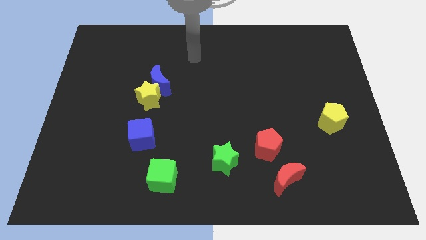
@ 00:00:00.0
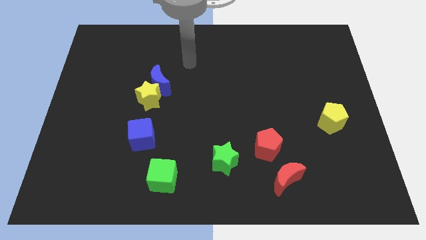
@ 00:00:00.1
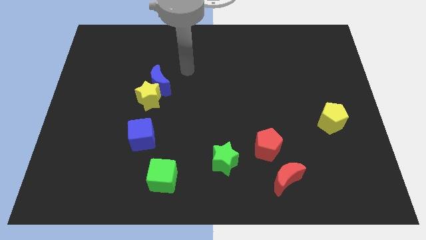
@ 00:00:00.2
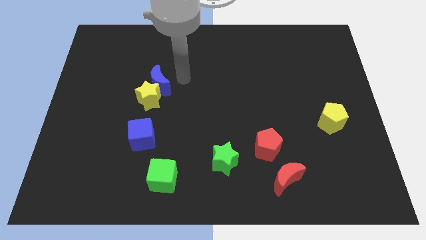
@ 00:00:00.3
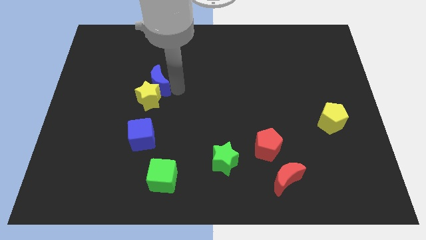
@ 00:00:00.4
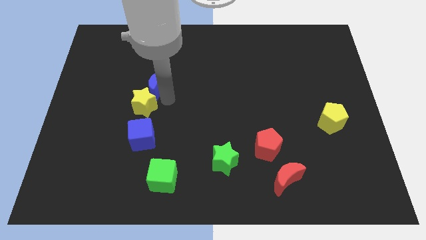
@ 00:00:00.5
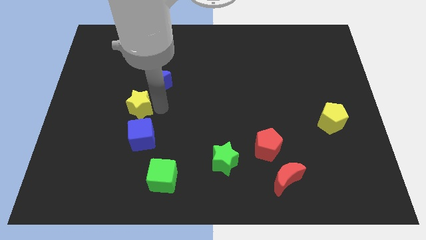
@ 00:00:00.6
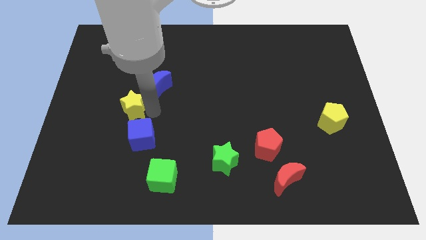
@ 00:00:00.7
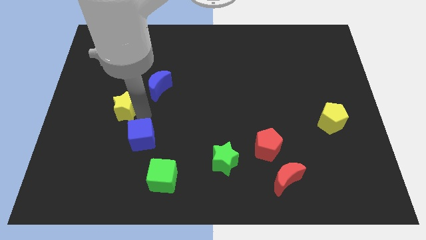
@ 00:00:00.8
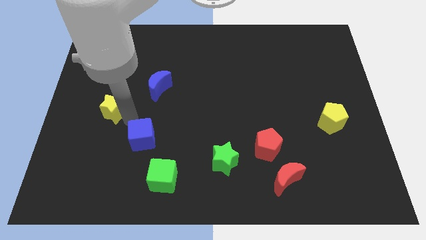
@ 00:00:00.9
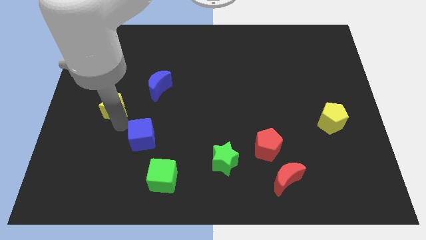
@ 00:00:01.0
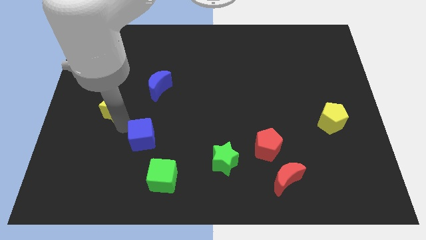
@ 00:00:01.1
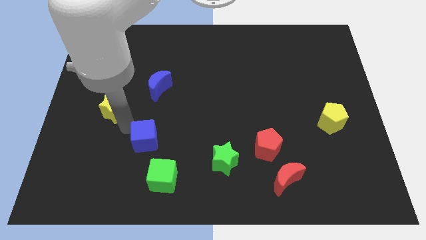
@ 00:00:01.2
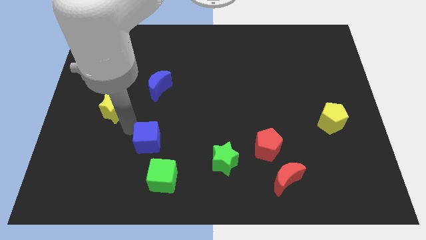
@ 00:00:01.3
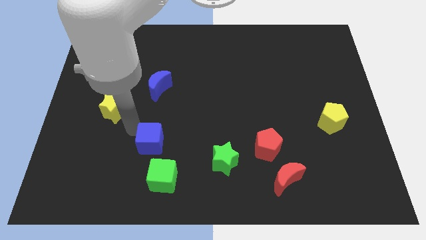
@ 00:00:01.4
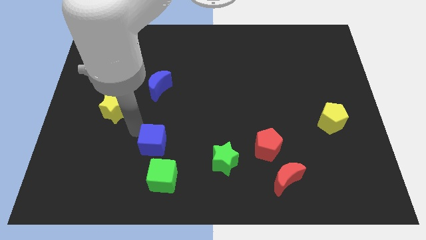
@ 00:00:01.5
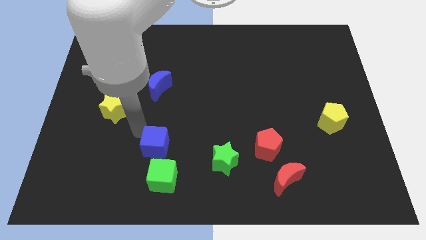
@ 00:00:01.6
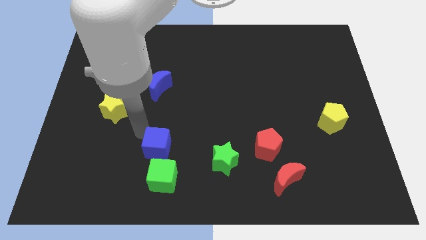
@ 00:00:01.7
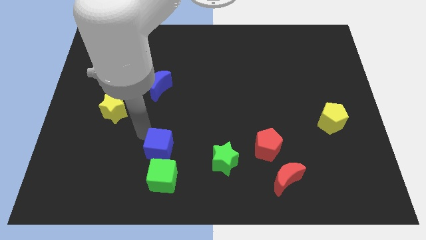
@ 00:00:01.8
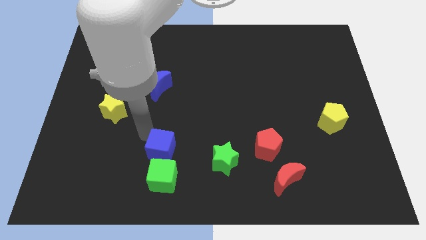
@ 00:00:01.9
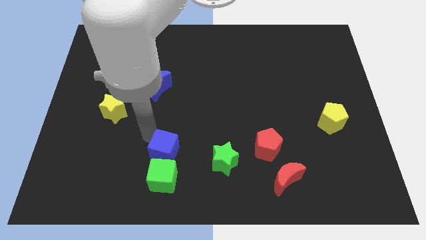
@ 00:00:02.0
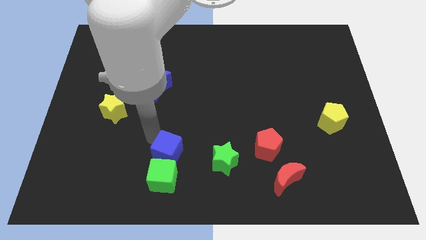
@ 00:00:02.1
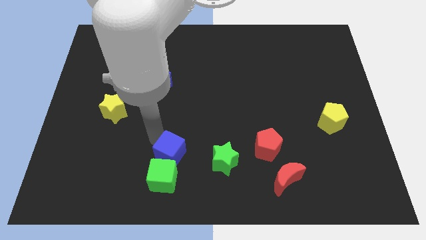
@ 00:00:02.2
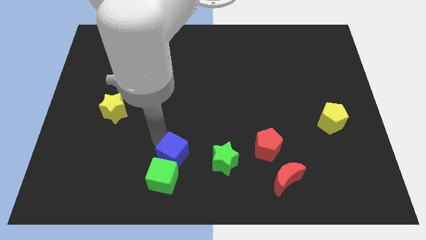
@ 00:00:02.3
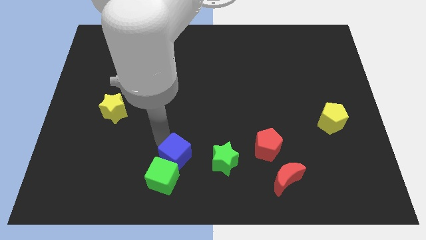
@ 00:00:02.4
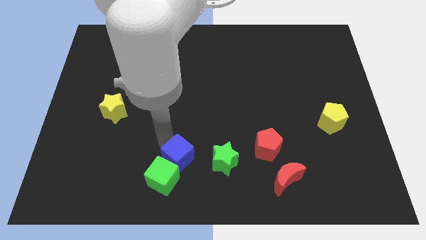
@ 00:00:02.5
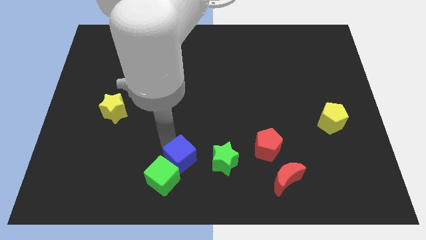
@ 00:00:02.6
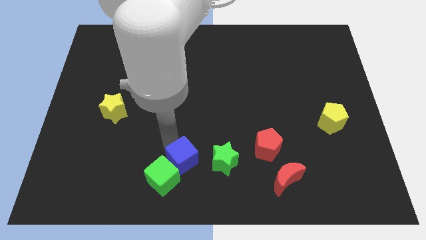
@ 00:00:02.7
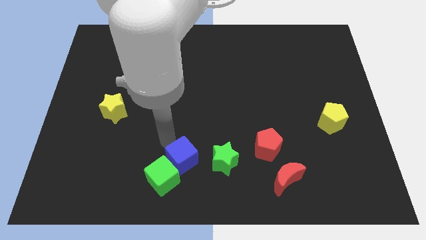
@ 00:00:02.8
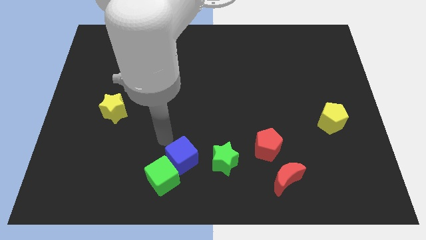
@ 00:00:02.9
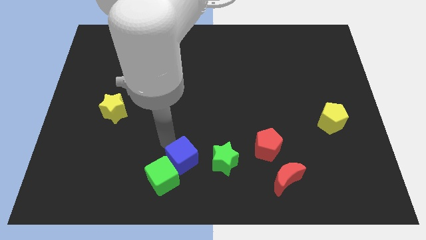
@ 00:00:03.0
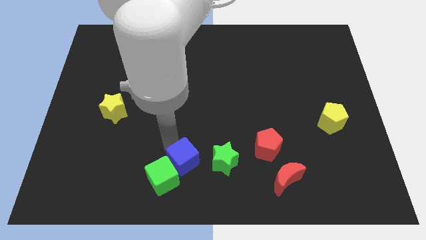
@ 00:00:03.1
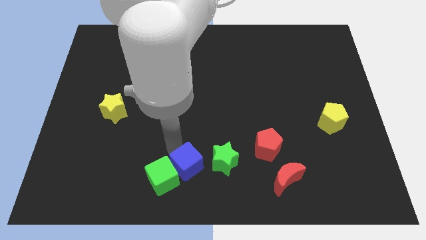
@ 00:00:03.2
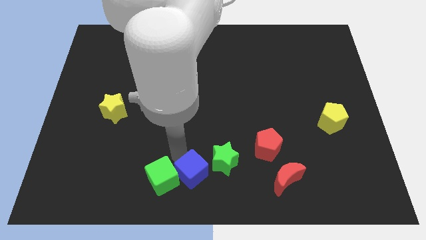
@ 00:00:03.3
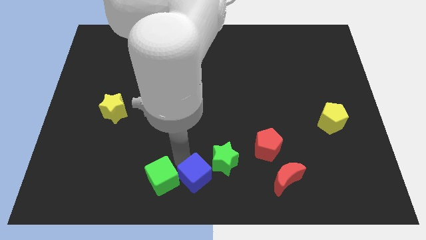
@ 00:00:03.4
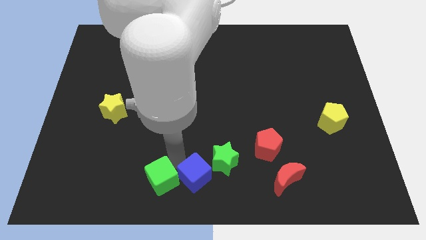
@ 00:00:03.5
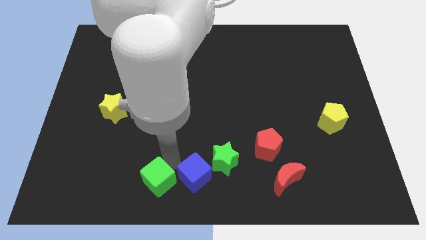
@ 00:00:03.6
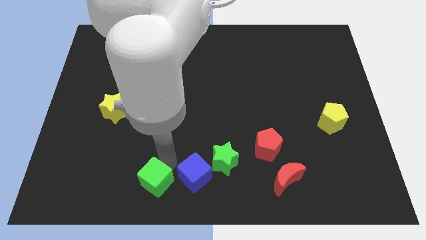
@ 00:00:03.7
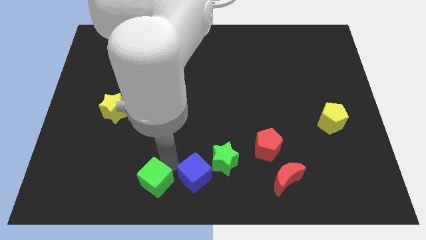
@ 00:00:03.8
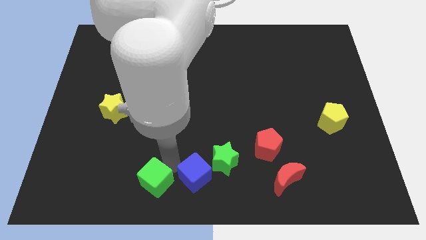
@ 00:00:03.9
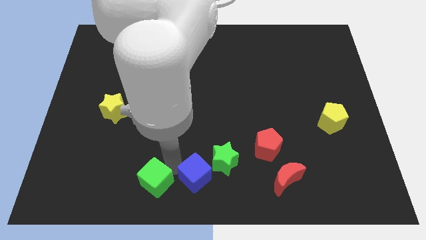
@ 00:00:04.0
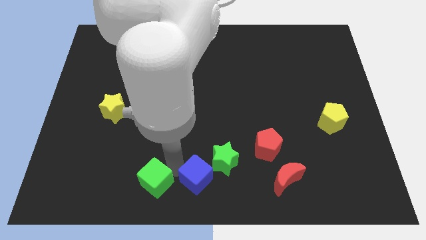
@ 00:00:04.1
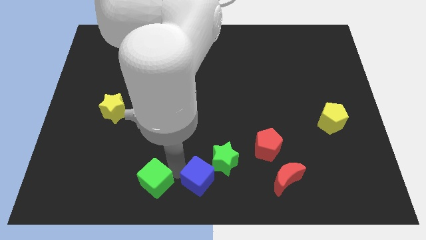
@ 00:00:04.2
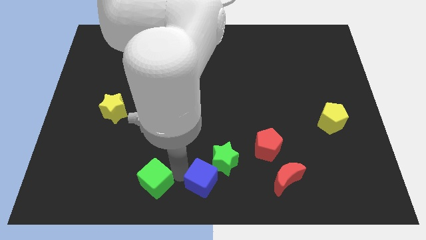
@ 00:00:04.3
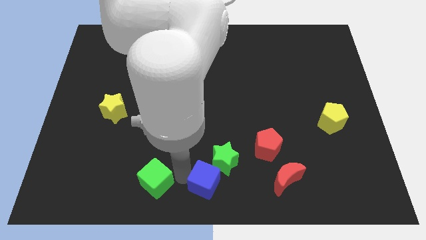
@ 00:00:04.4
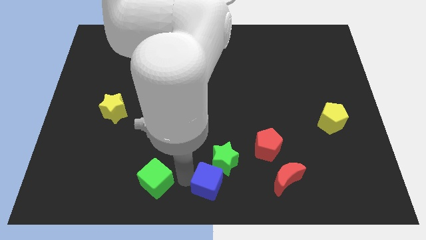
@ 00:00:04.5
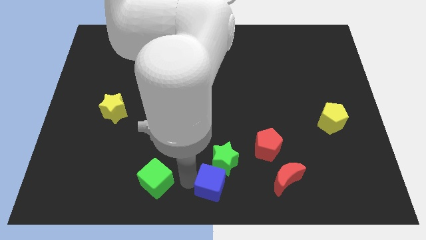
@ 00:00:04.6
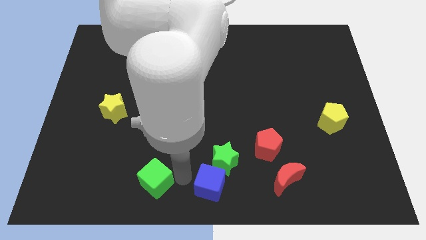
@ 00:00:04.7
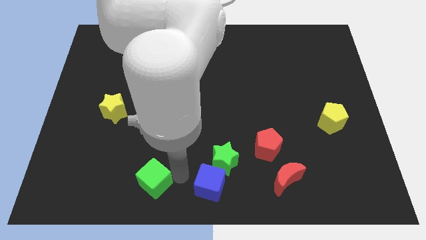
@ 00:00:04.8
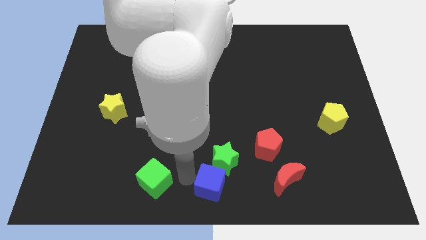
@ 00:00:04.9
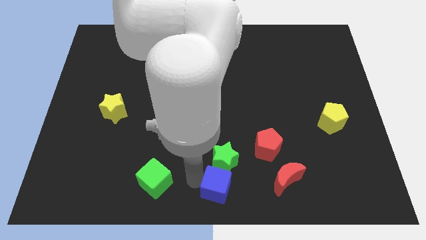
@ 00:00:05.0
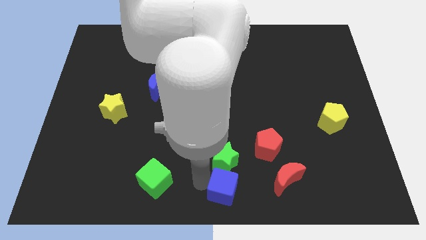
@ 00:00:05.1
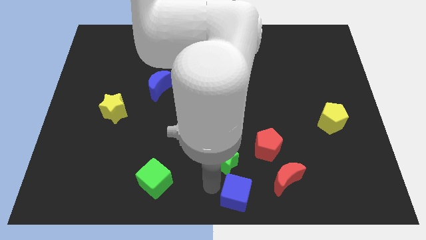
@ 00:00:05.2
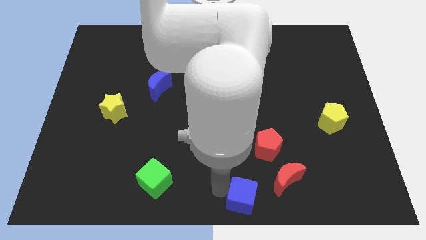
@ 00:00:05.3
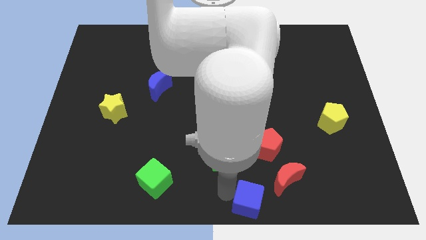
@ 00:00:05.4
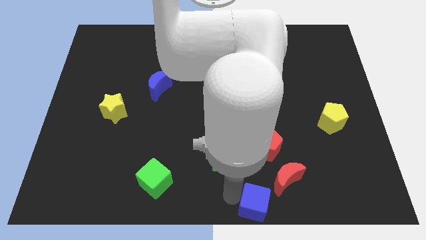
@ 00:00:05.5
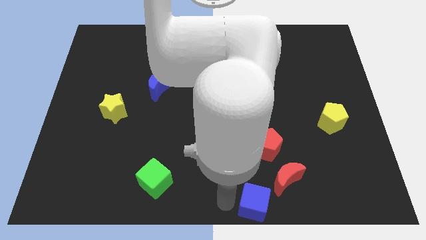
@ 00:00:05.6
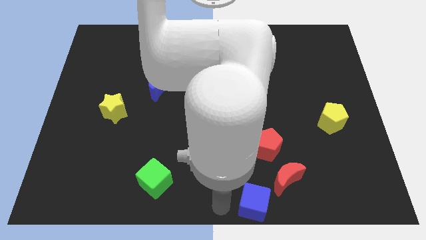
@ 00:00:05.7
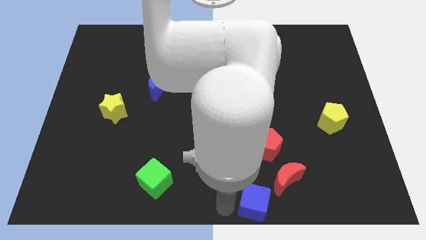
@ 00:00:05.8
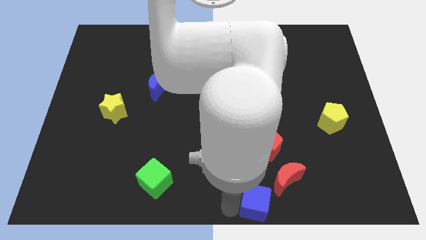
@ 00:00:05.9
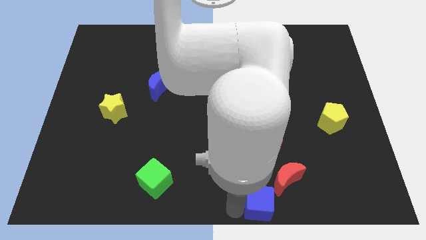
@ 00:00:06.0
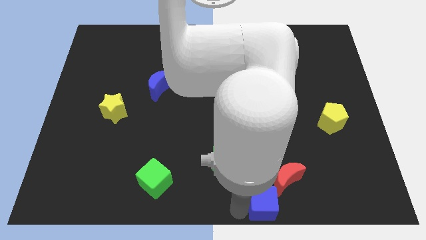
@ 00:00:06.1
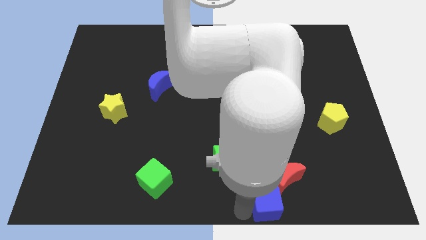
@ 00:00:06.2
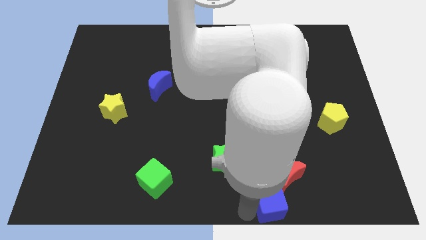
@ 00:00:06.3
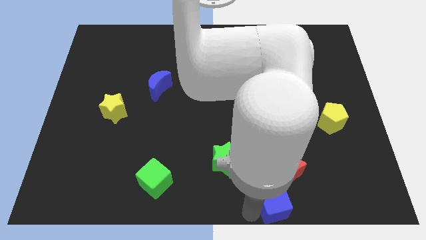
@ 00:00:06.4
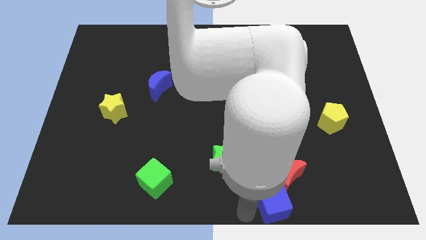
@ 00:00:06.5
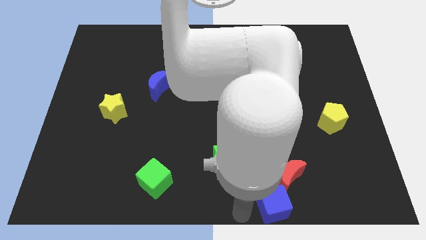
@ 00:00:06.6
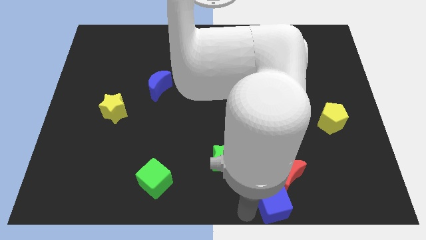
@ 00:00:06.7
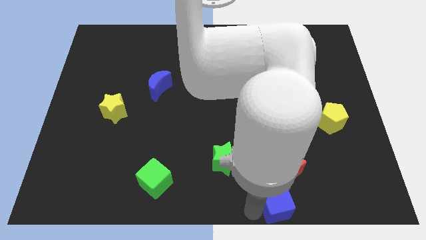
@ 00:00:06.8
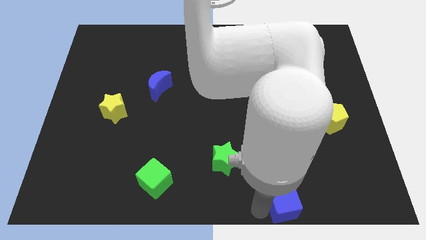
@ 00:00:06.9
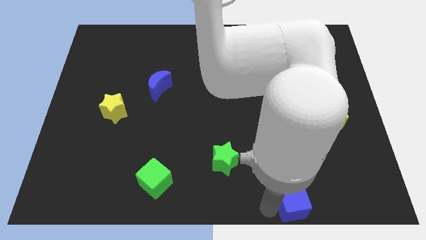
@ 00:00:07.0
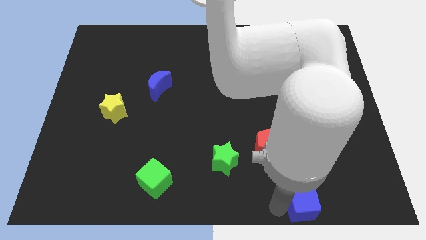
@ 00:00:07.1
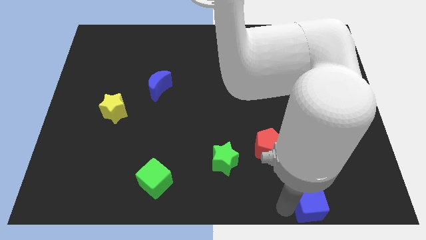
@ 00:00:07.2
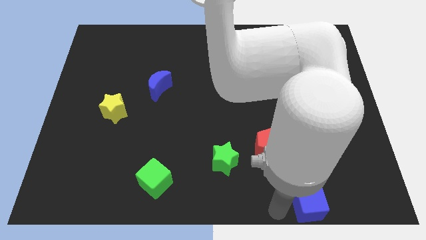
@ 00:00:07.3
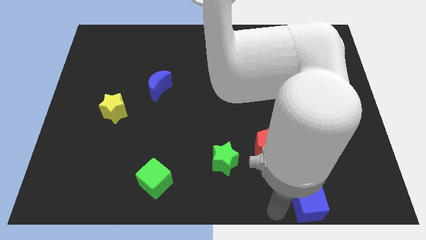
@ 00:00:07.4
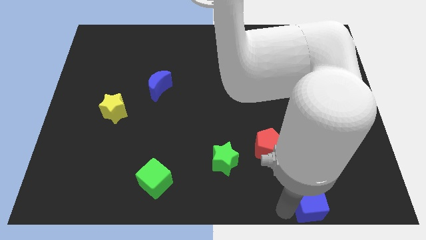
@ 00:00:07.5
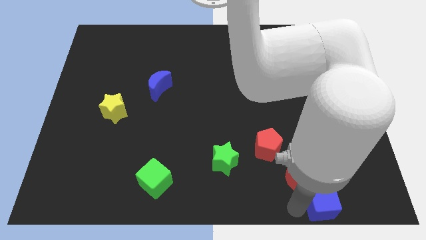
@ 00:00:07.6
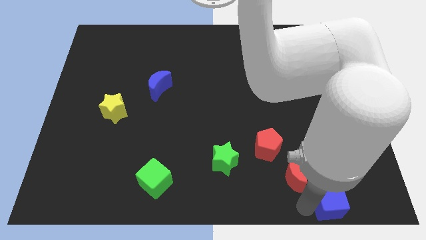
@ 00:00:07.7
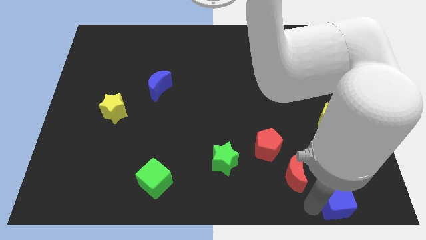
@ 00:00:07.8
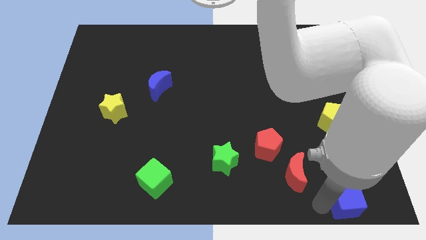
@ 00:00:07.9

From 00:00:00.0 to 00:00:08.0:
move the blue cube to the bottom right corner
